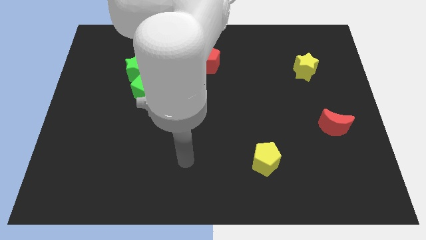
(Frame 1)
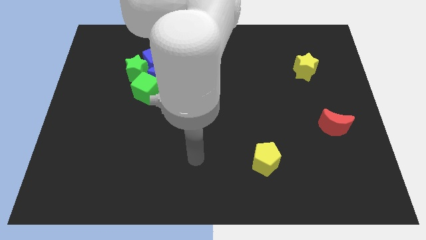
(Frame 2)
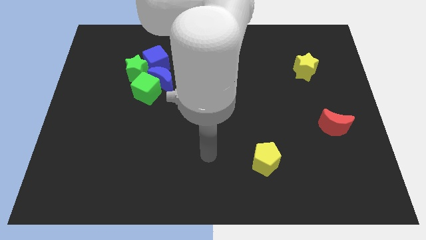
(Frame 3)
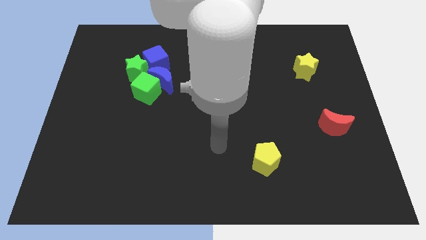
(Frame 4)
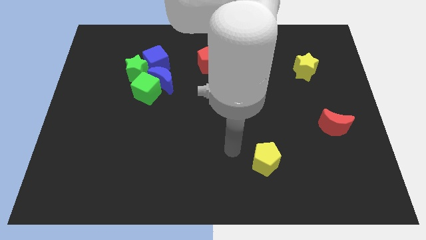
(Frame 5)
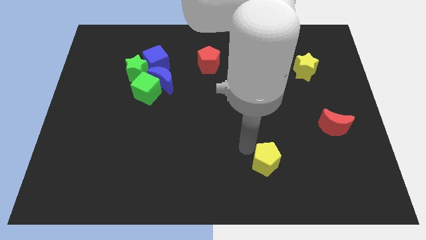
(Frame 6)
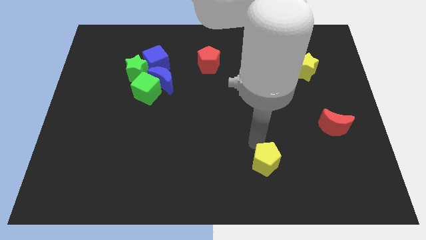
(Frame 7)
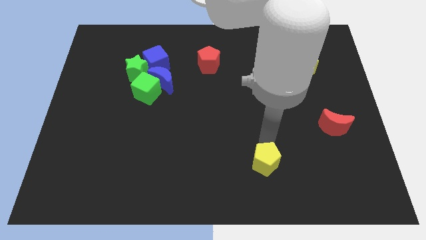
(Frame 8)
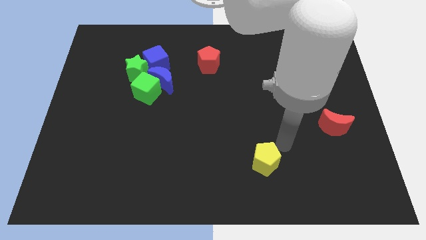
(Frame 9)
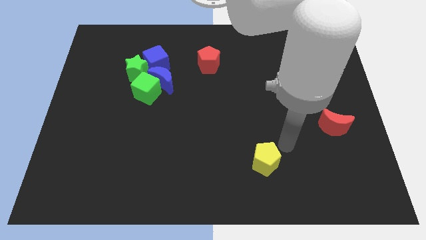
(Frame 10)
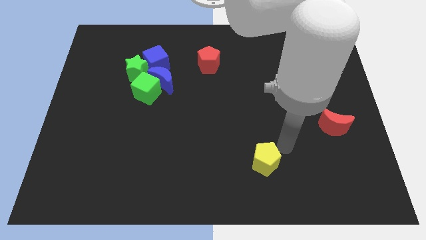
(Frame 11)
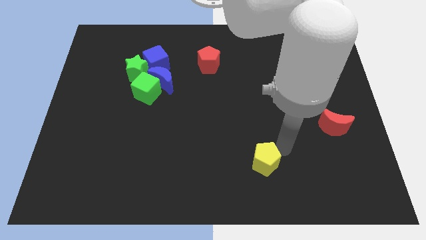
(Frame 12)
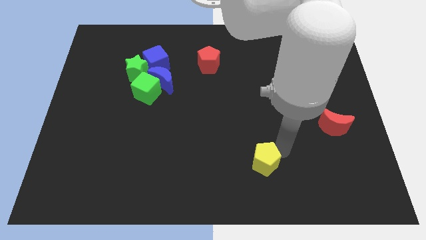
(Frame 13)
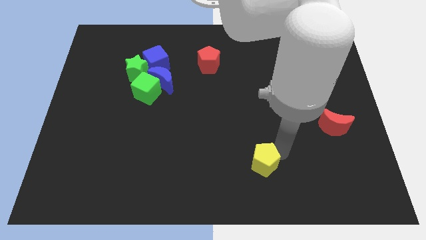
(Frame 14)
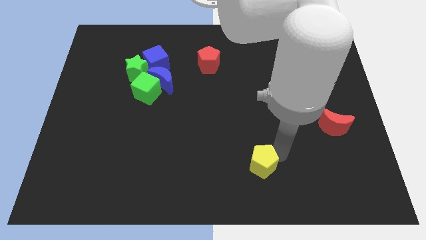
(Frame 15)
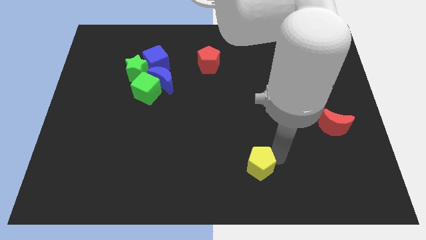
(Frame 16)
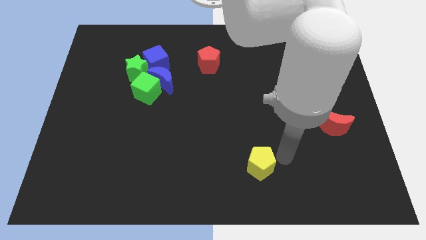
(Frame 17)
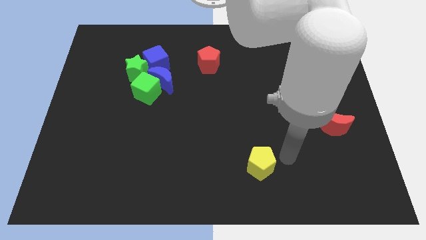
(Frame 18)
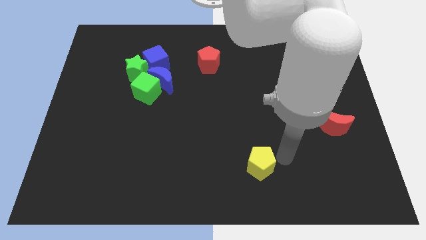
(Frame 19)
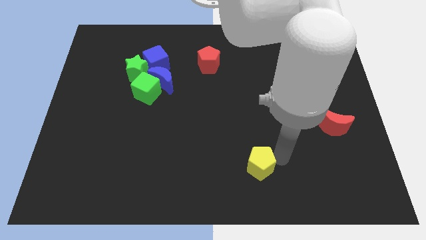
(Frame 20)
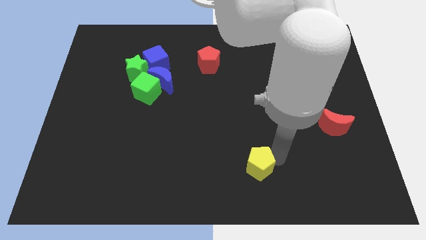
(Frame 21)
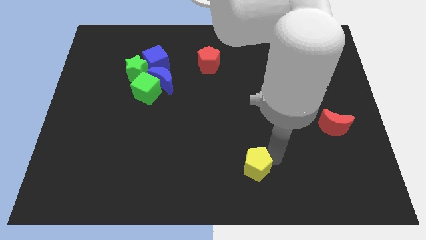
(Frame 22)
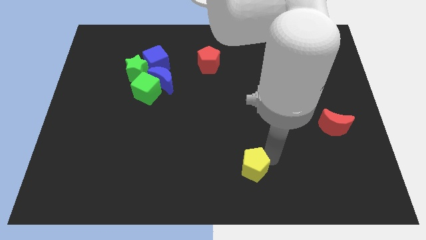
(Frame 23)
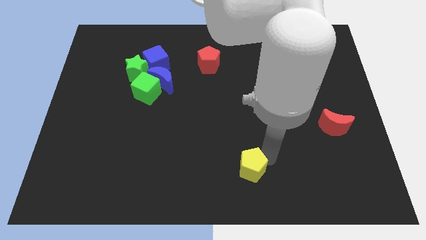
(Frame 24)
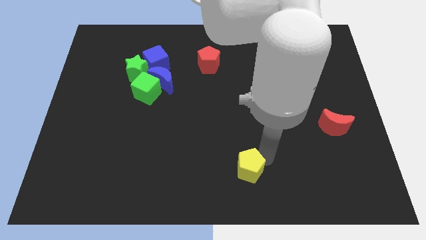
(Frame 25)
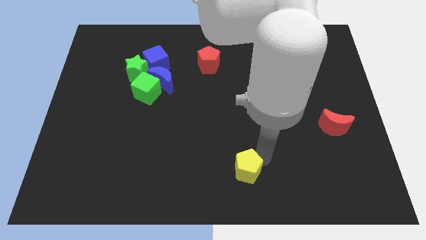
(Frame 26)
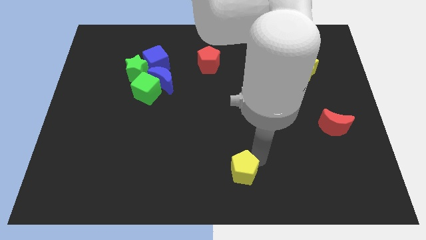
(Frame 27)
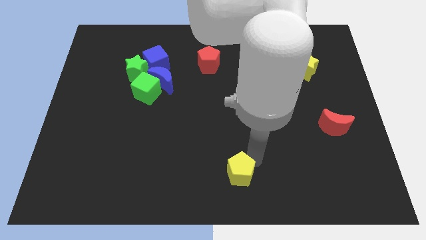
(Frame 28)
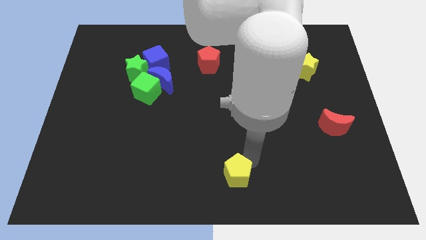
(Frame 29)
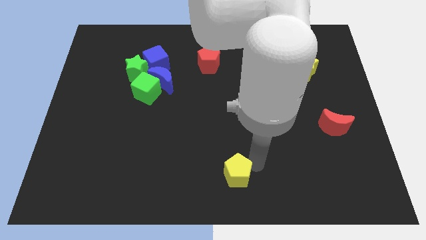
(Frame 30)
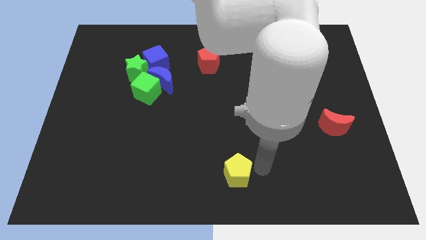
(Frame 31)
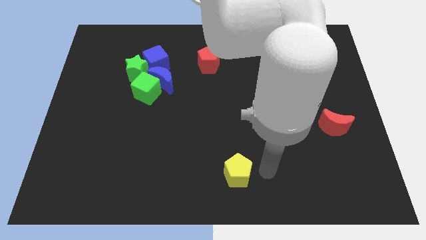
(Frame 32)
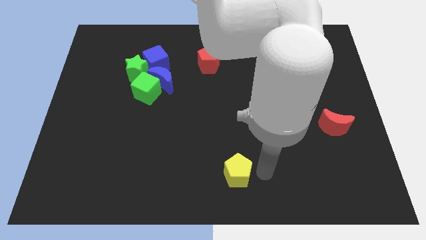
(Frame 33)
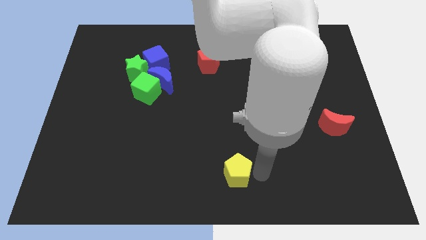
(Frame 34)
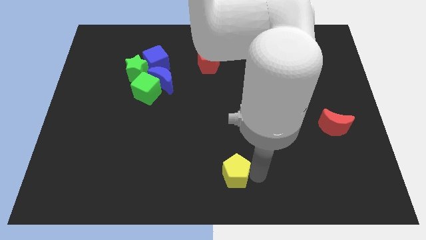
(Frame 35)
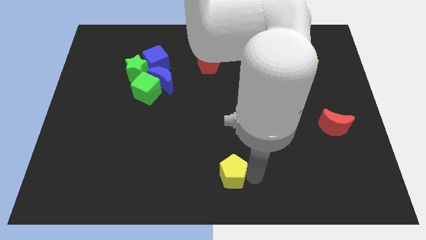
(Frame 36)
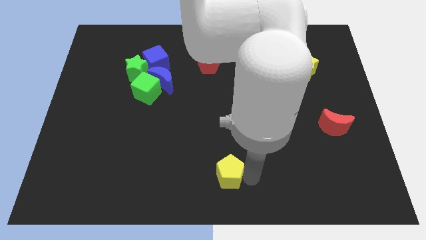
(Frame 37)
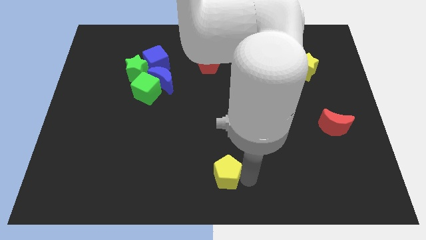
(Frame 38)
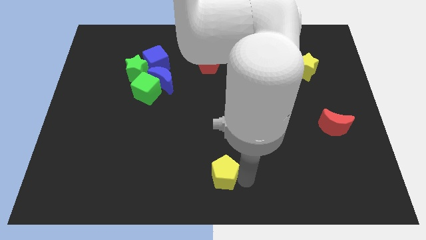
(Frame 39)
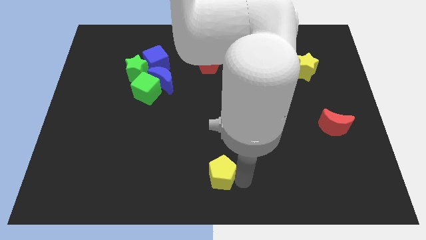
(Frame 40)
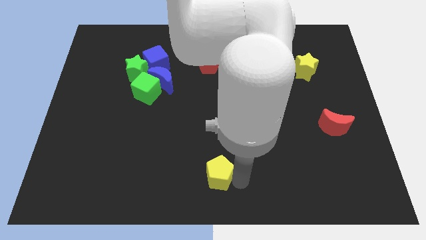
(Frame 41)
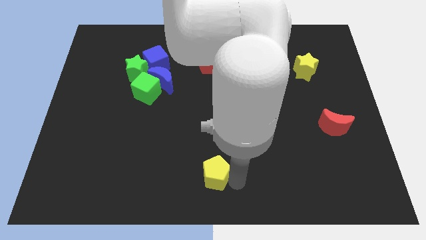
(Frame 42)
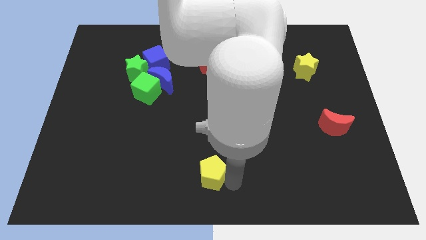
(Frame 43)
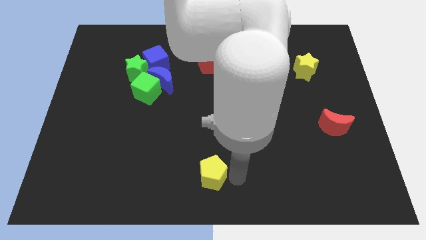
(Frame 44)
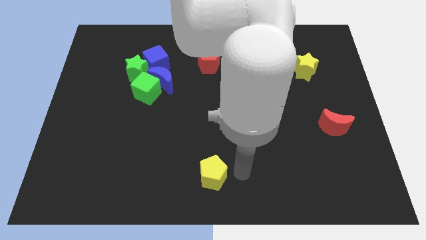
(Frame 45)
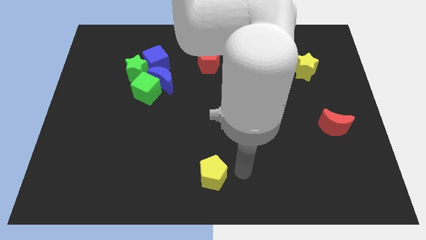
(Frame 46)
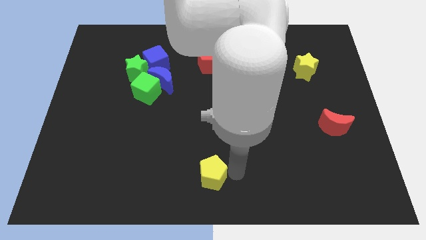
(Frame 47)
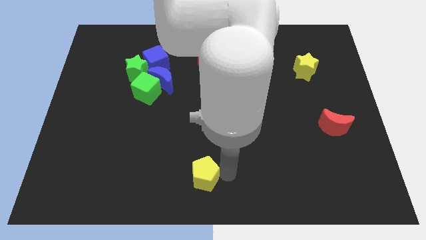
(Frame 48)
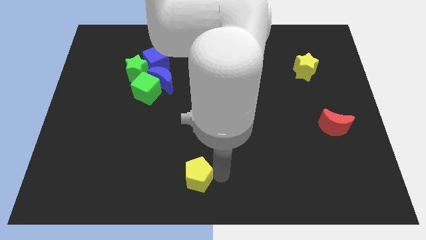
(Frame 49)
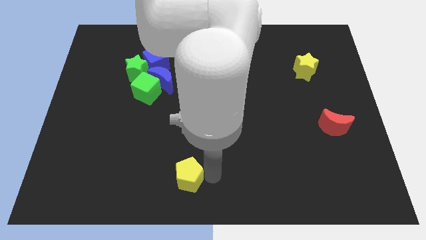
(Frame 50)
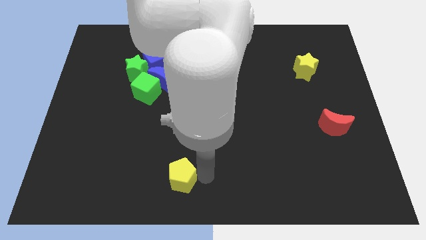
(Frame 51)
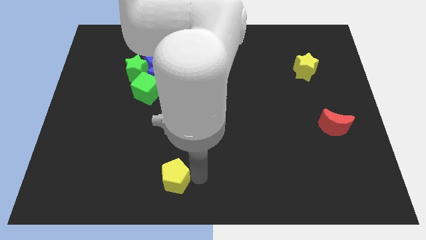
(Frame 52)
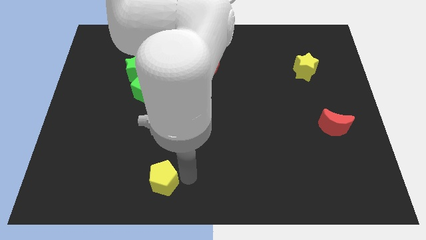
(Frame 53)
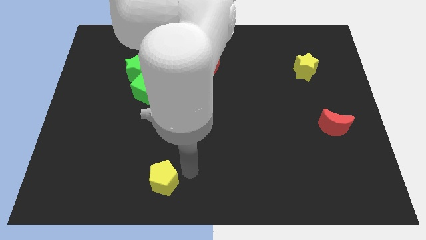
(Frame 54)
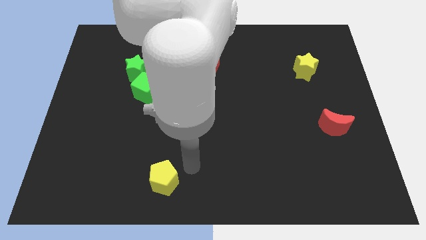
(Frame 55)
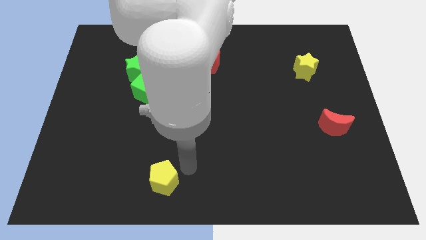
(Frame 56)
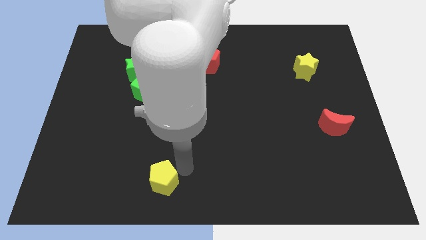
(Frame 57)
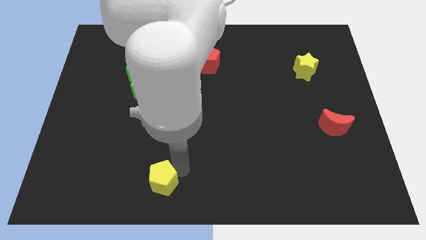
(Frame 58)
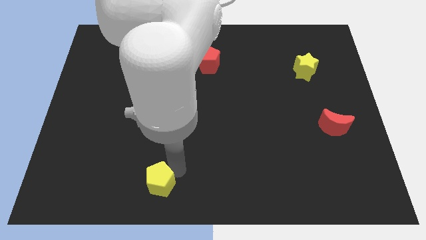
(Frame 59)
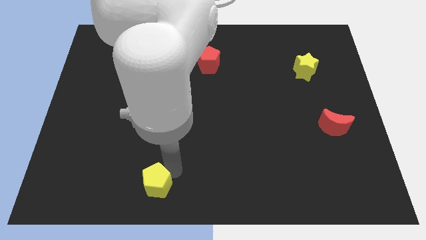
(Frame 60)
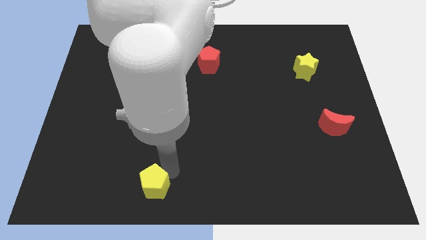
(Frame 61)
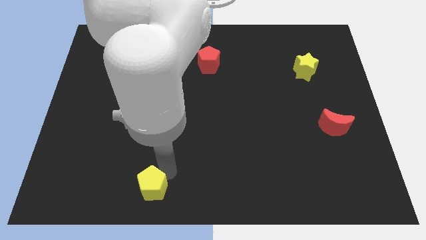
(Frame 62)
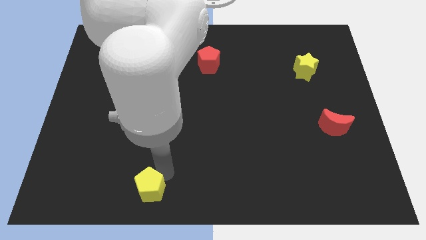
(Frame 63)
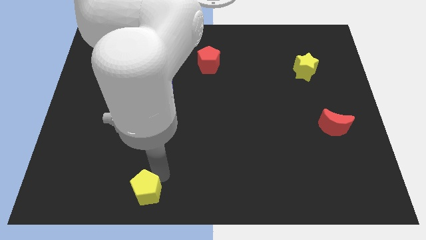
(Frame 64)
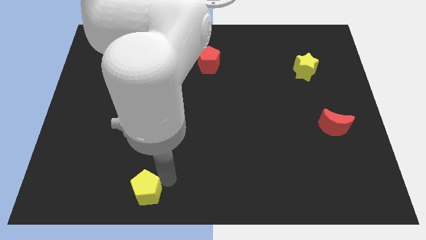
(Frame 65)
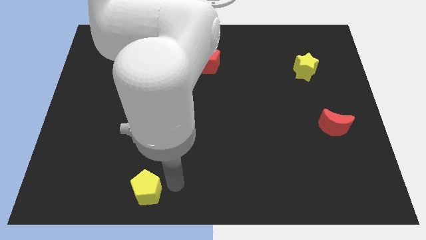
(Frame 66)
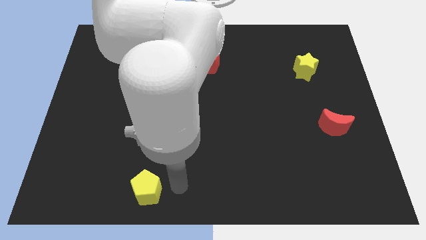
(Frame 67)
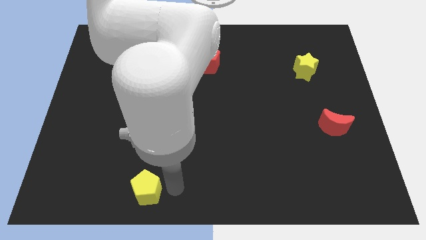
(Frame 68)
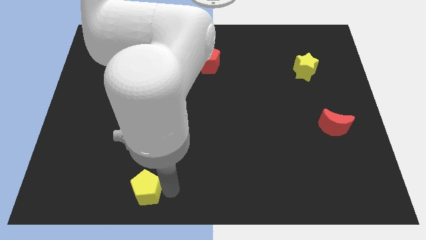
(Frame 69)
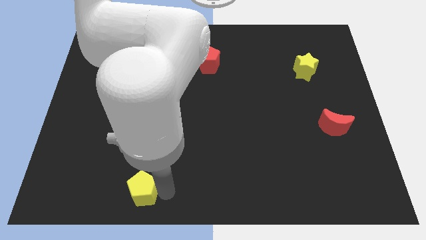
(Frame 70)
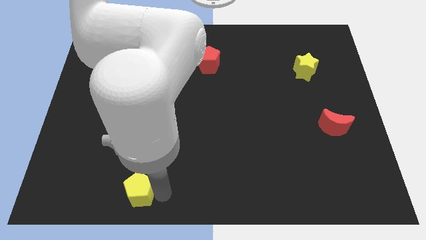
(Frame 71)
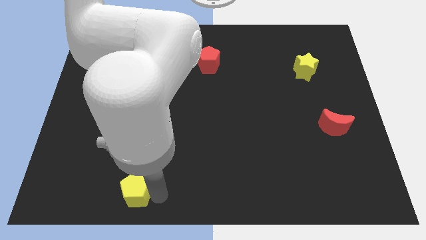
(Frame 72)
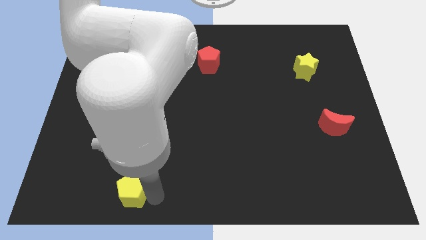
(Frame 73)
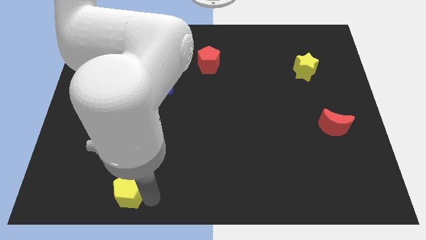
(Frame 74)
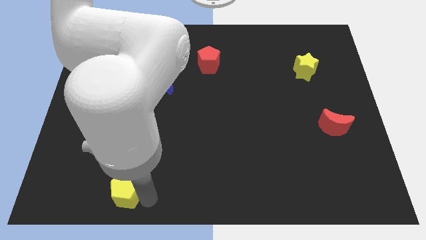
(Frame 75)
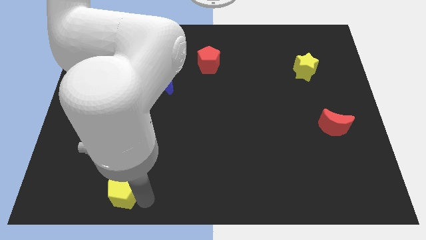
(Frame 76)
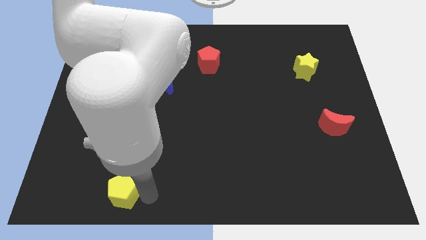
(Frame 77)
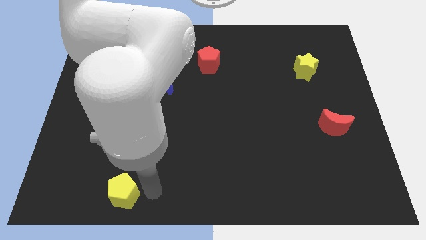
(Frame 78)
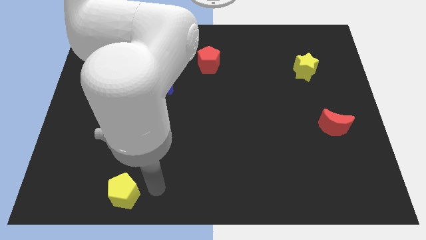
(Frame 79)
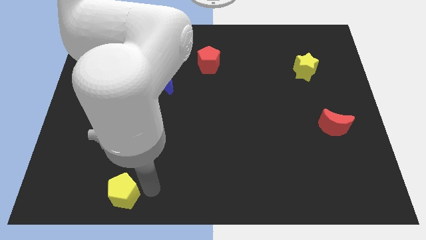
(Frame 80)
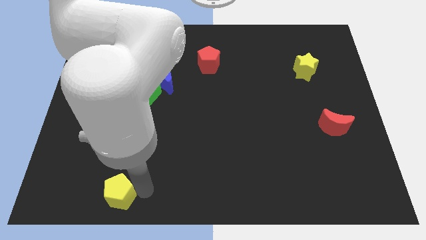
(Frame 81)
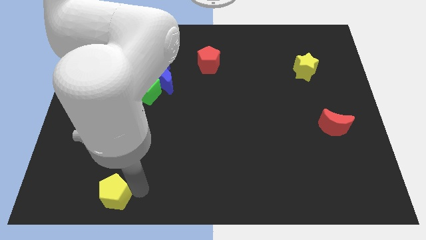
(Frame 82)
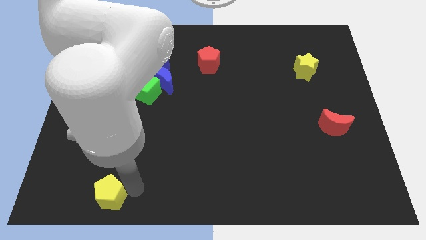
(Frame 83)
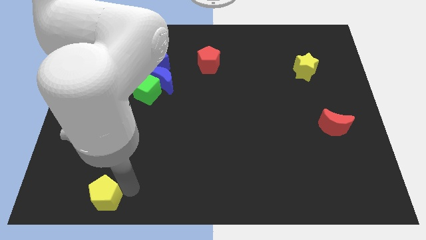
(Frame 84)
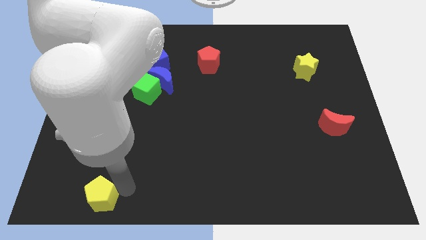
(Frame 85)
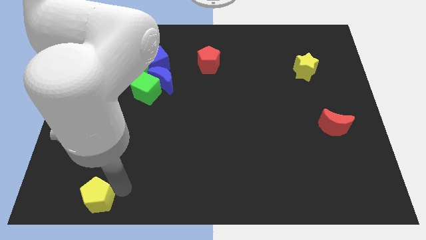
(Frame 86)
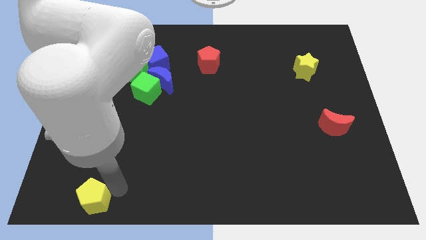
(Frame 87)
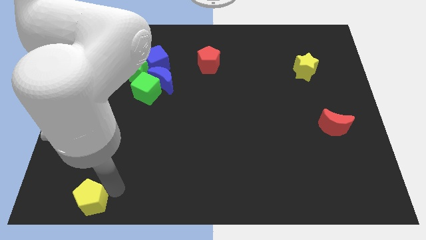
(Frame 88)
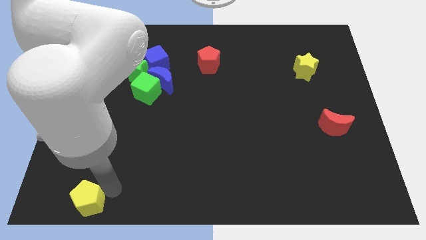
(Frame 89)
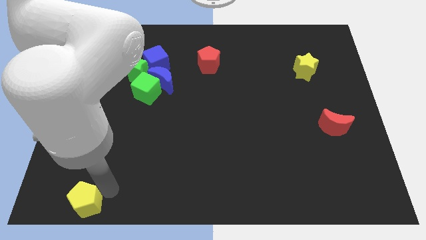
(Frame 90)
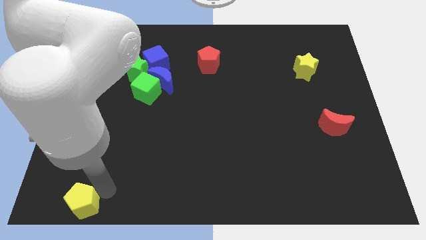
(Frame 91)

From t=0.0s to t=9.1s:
move the yellow pentagon to the bottom left
